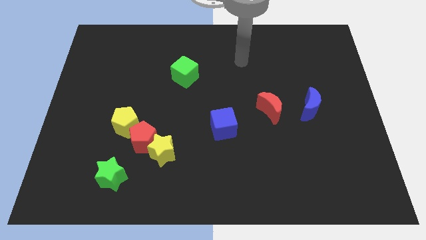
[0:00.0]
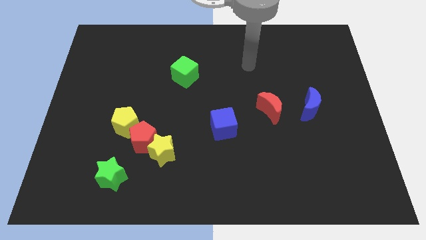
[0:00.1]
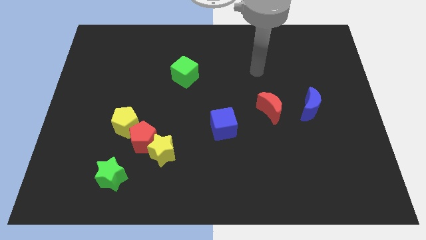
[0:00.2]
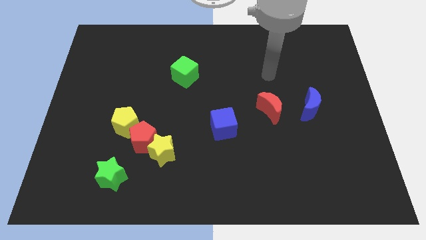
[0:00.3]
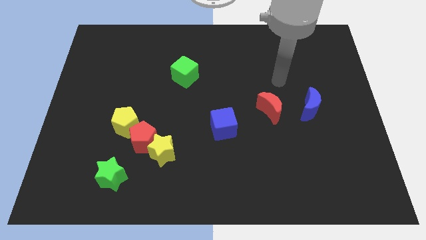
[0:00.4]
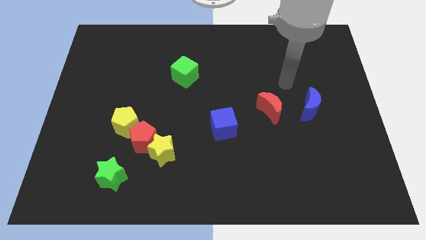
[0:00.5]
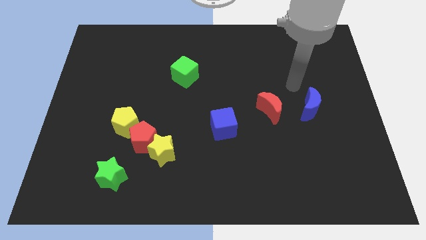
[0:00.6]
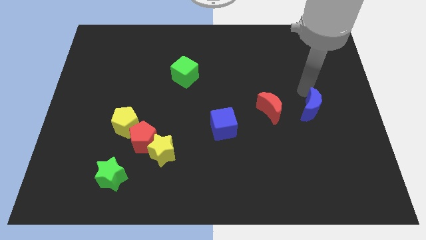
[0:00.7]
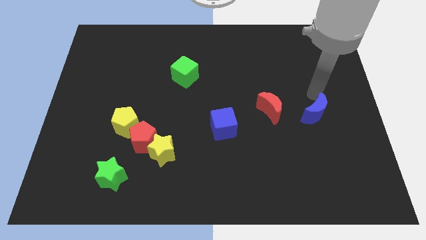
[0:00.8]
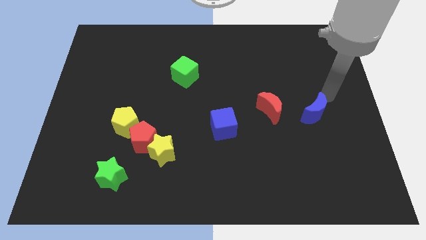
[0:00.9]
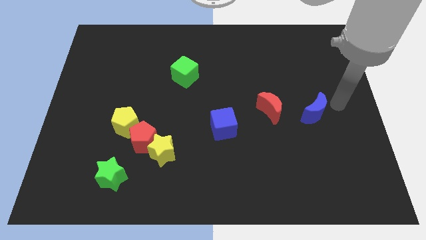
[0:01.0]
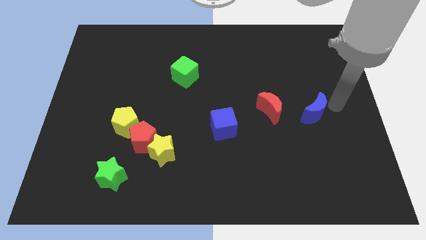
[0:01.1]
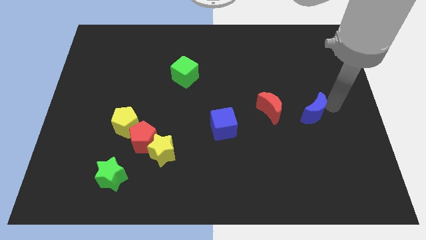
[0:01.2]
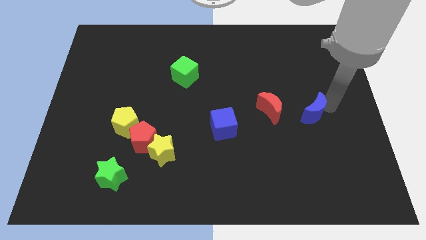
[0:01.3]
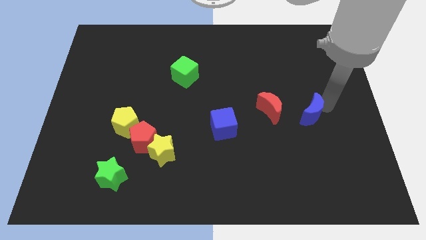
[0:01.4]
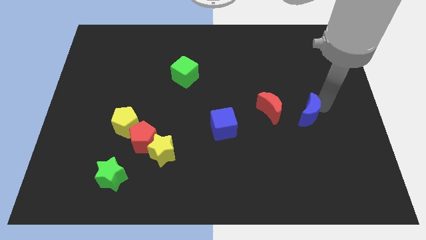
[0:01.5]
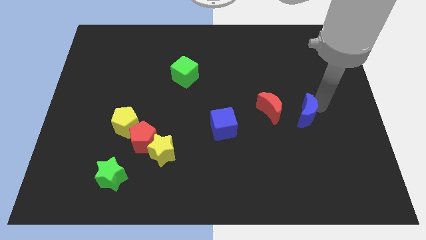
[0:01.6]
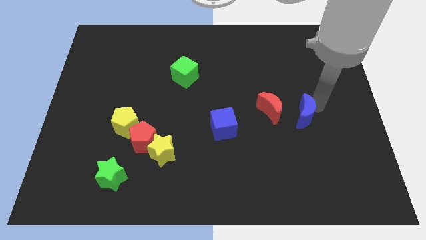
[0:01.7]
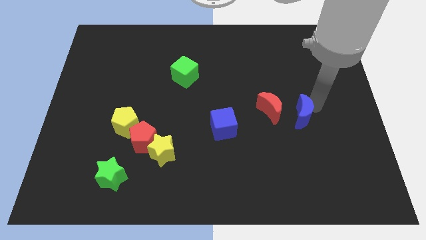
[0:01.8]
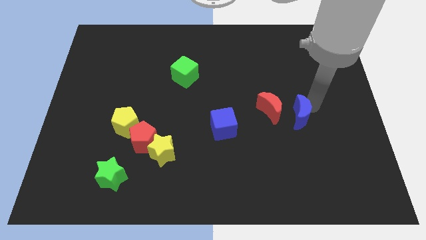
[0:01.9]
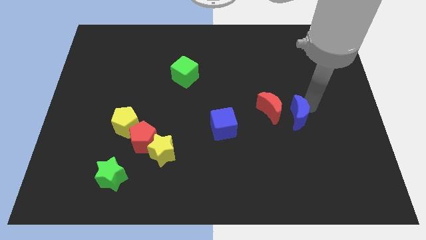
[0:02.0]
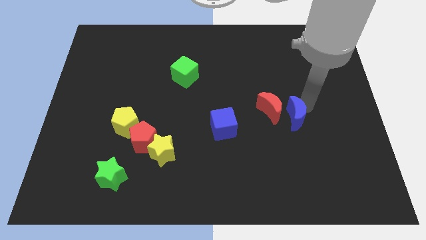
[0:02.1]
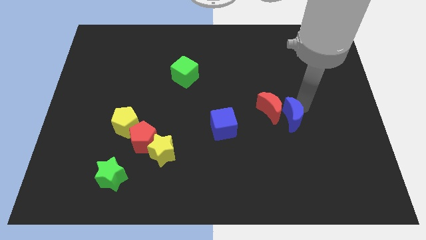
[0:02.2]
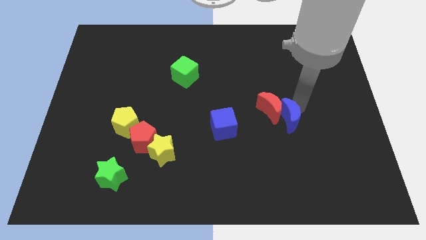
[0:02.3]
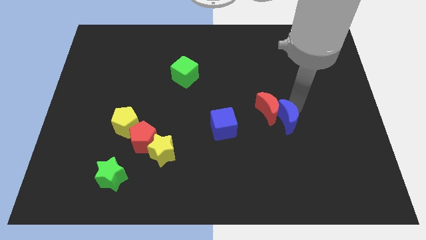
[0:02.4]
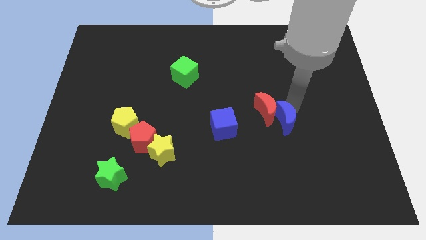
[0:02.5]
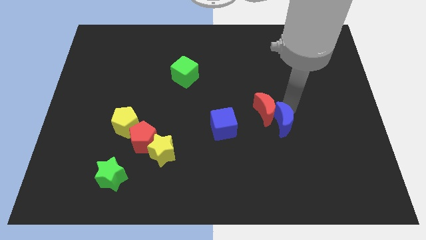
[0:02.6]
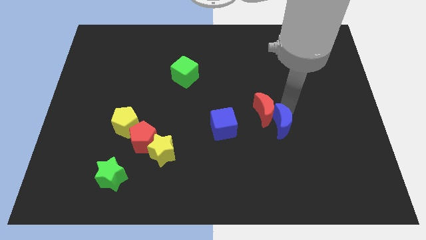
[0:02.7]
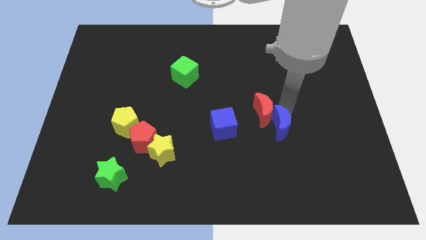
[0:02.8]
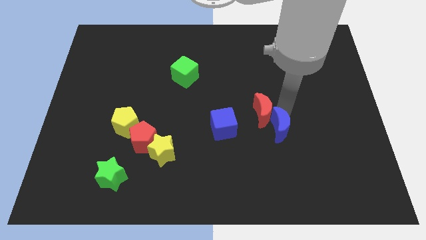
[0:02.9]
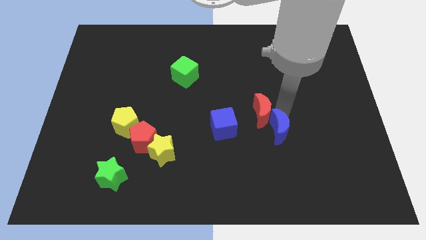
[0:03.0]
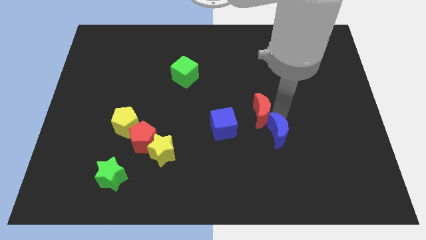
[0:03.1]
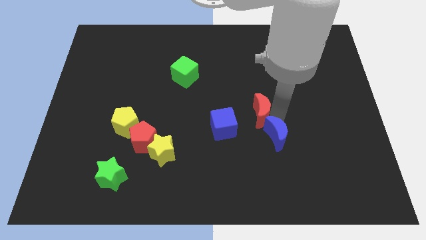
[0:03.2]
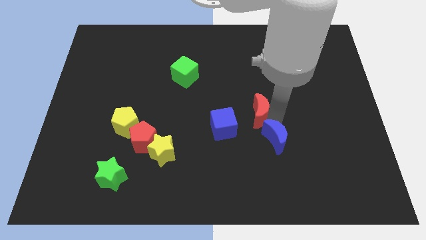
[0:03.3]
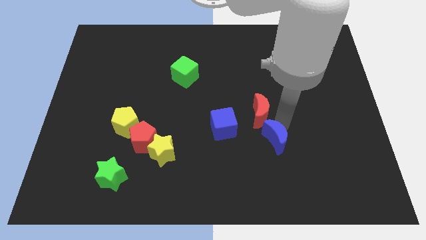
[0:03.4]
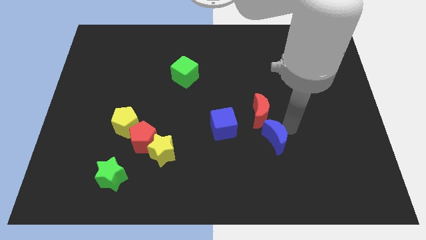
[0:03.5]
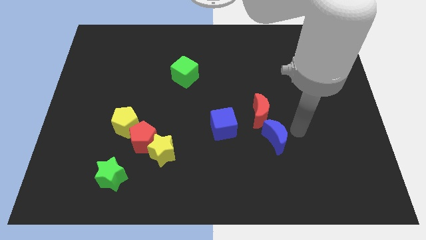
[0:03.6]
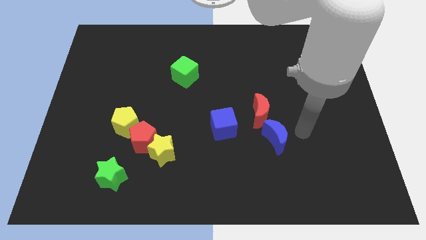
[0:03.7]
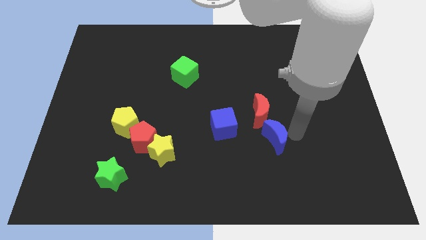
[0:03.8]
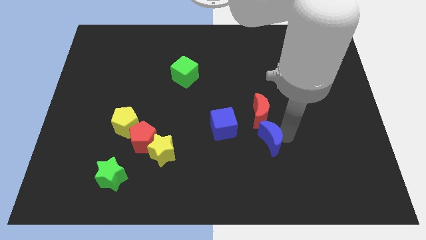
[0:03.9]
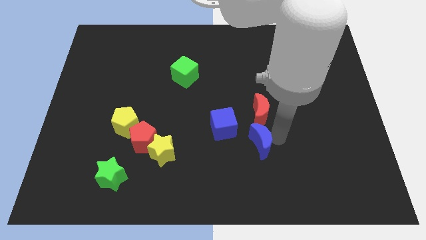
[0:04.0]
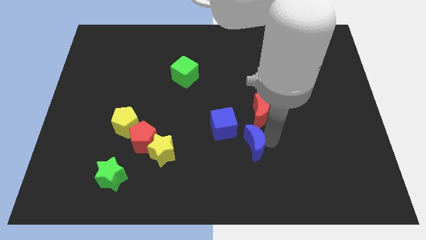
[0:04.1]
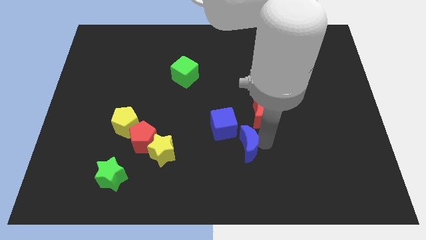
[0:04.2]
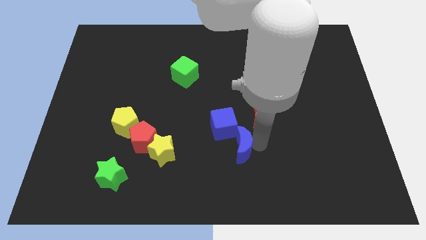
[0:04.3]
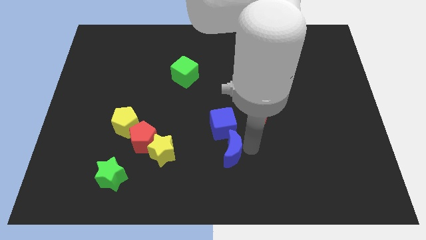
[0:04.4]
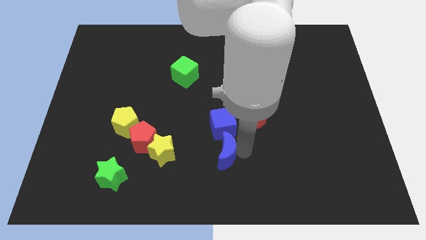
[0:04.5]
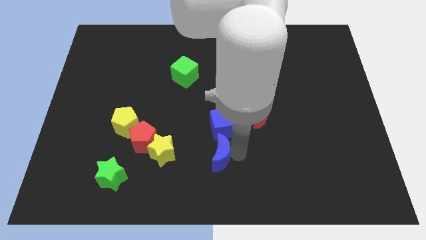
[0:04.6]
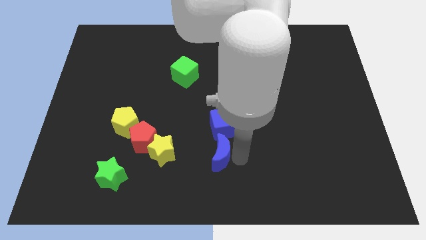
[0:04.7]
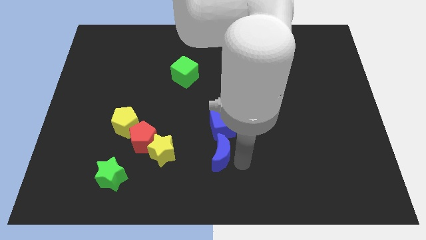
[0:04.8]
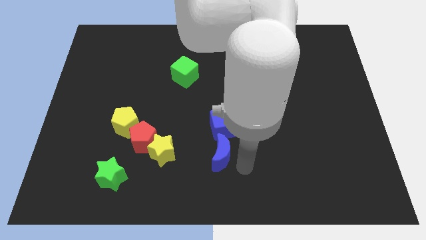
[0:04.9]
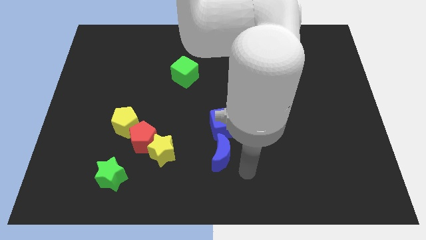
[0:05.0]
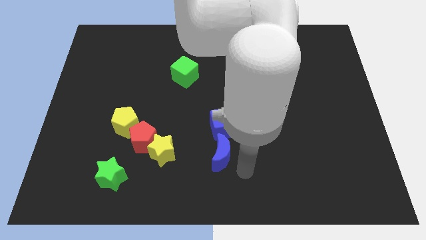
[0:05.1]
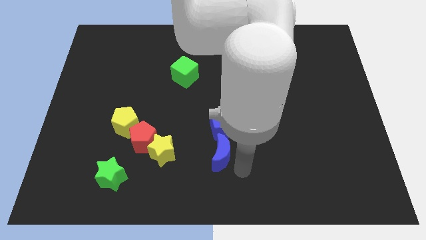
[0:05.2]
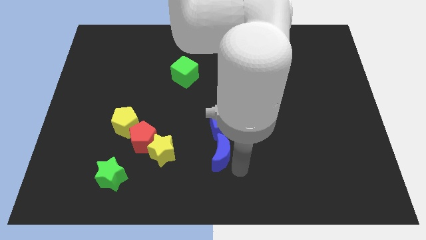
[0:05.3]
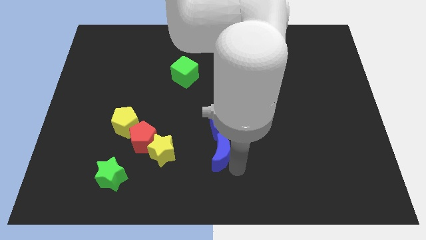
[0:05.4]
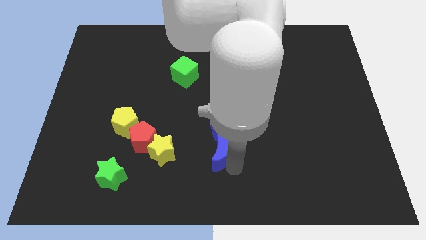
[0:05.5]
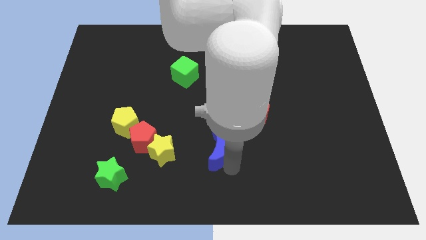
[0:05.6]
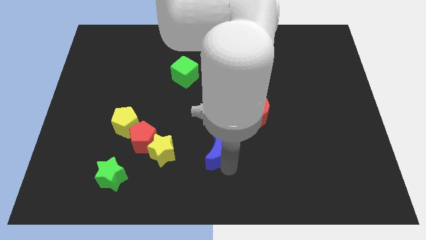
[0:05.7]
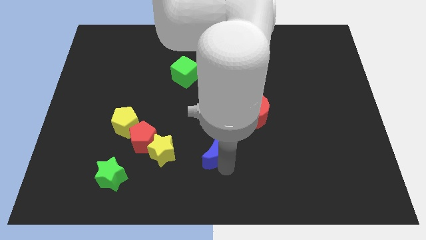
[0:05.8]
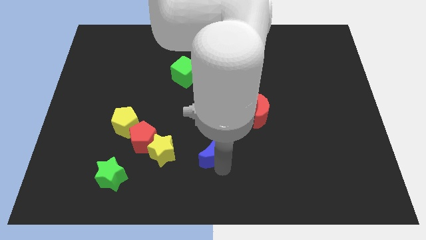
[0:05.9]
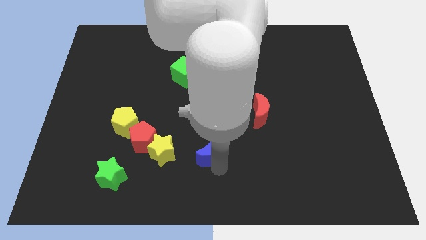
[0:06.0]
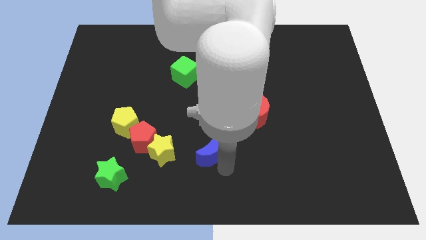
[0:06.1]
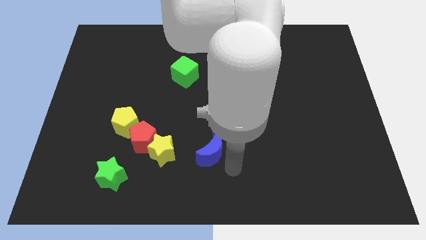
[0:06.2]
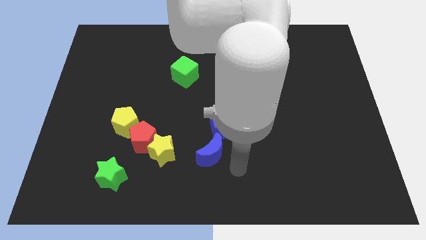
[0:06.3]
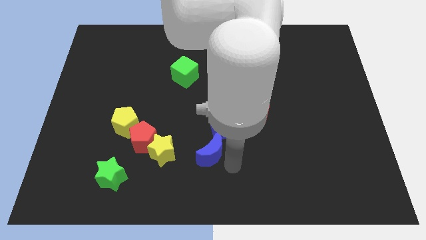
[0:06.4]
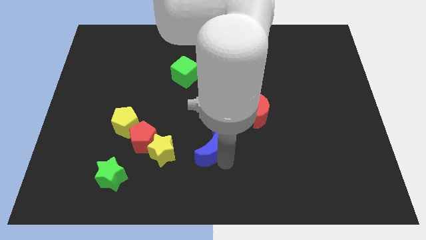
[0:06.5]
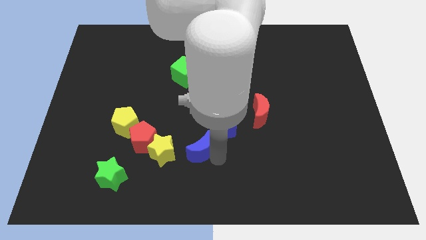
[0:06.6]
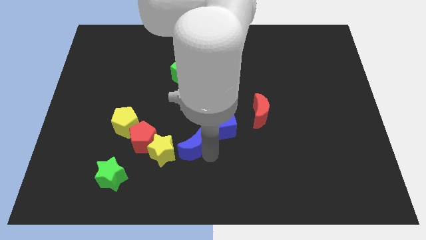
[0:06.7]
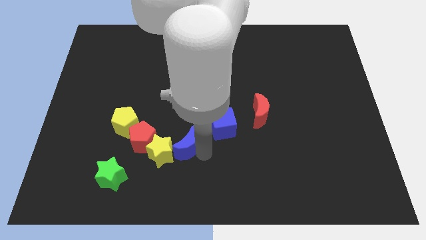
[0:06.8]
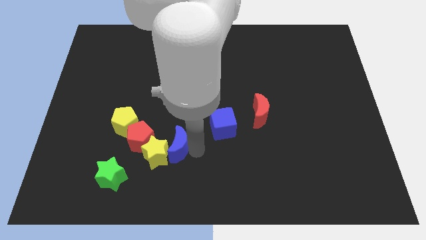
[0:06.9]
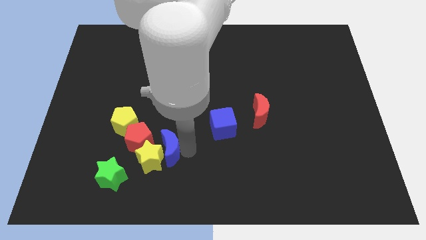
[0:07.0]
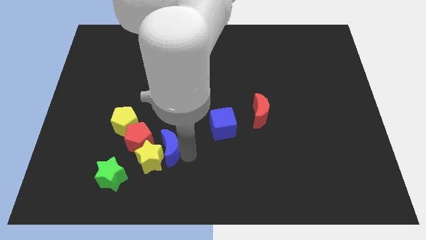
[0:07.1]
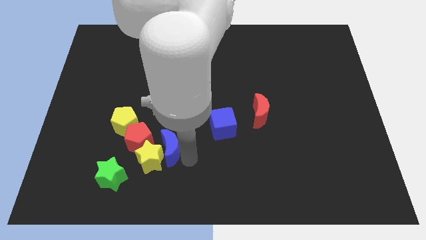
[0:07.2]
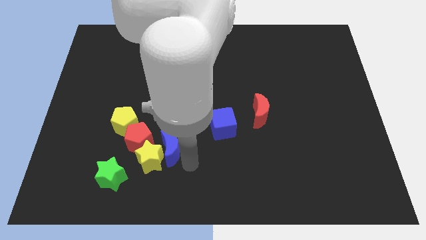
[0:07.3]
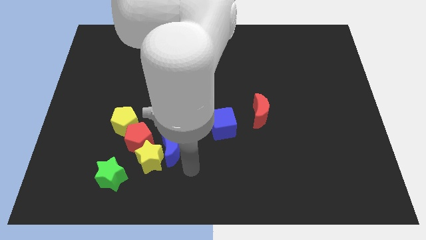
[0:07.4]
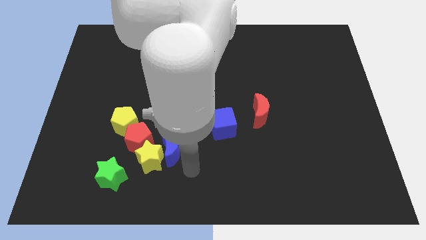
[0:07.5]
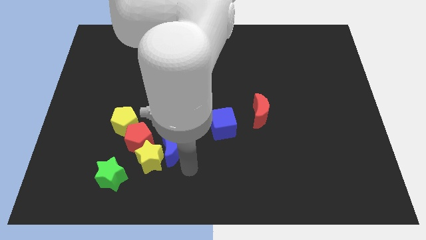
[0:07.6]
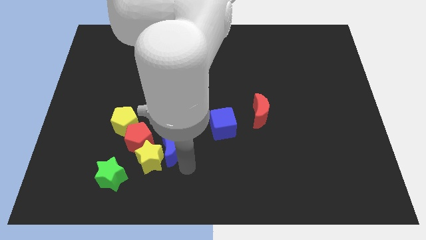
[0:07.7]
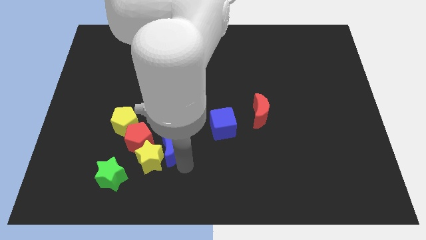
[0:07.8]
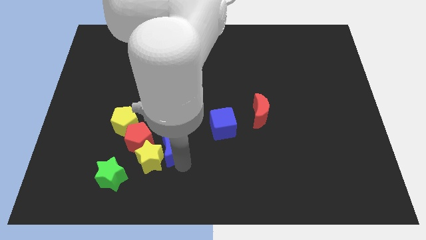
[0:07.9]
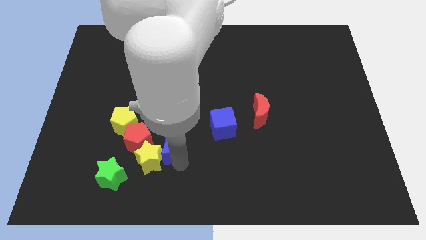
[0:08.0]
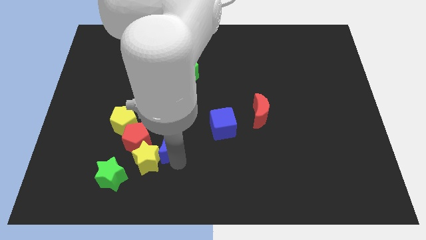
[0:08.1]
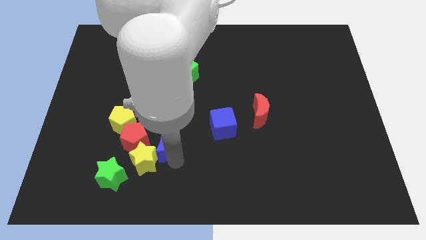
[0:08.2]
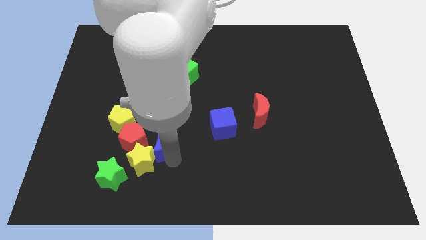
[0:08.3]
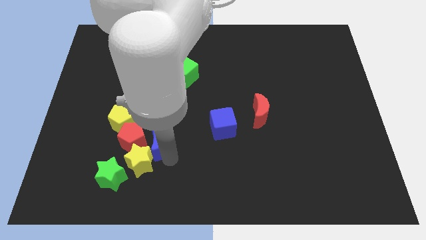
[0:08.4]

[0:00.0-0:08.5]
move the blue moon towards the red pentagon
